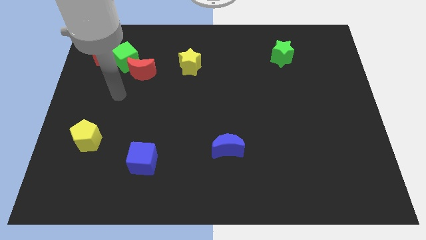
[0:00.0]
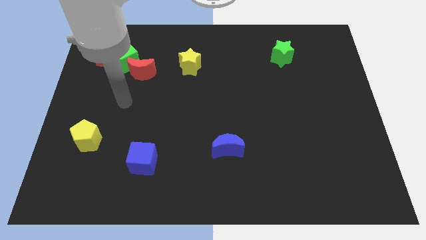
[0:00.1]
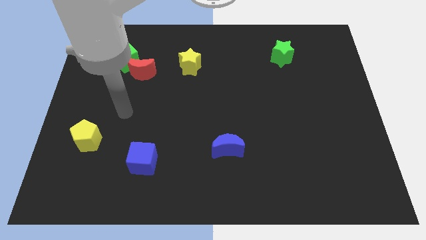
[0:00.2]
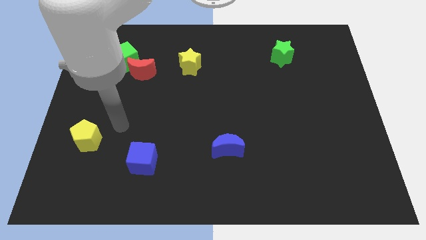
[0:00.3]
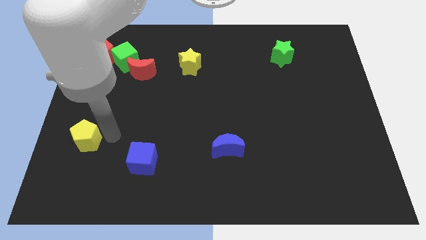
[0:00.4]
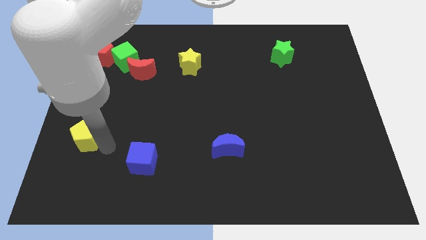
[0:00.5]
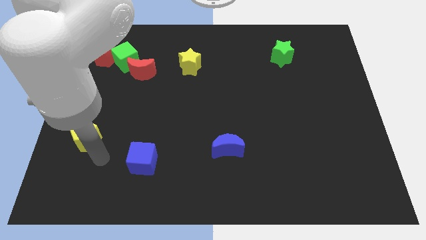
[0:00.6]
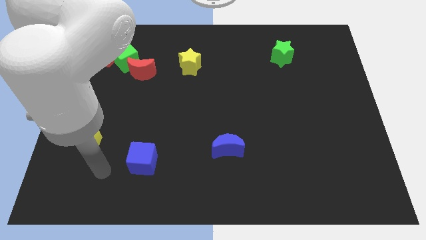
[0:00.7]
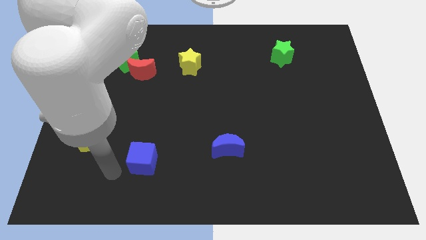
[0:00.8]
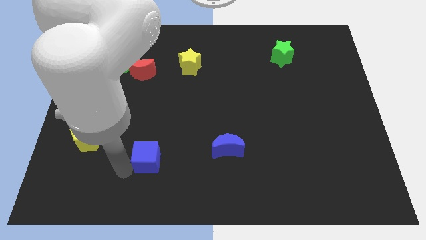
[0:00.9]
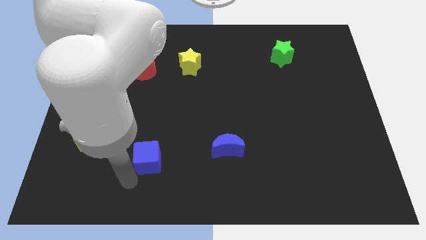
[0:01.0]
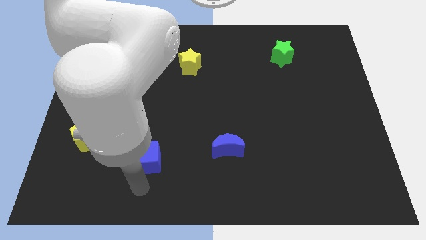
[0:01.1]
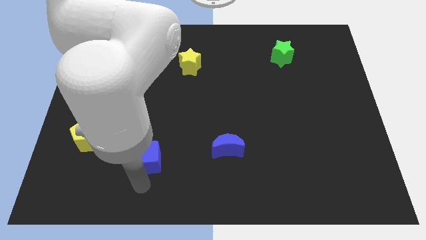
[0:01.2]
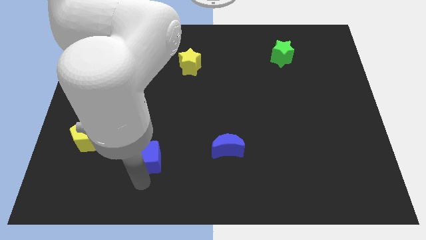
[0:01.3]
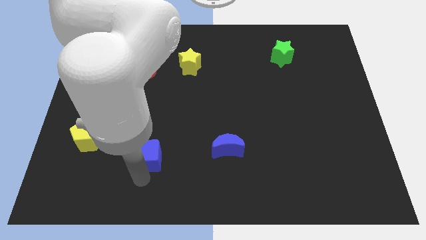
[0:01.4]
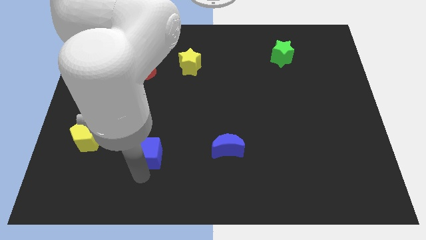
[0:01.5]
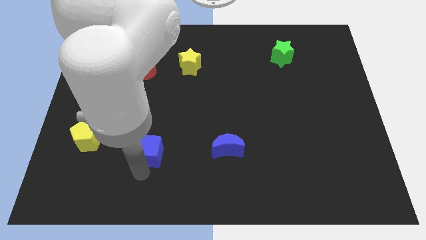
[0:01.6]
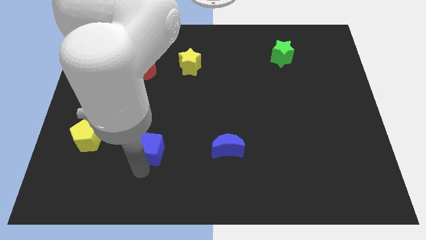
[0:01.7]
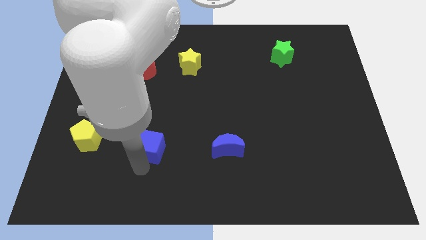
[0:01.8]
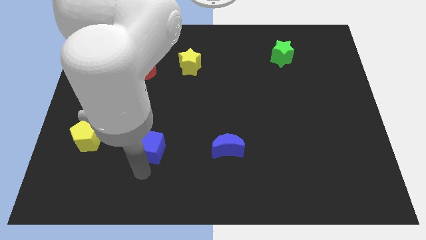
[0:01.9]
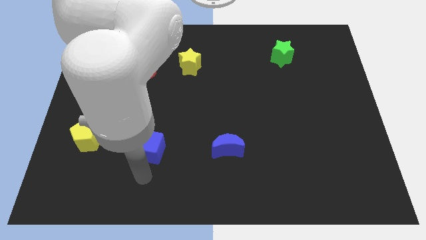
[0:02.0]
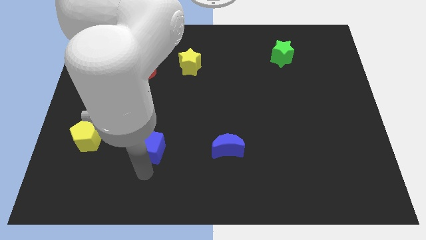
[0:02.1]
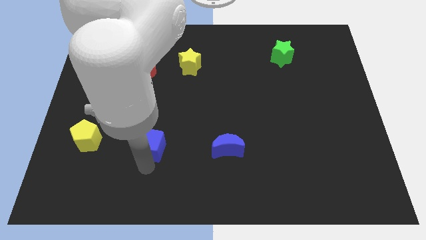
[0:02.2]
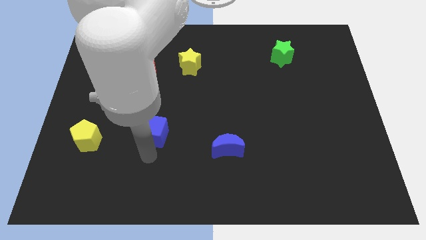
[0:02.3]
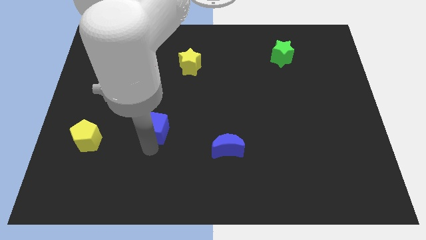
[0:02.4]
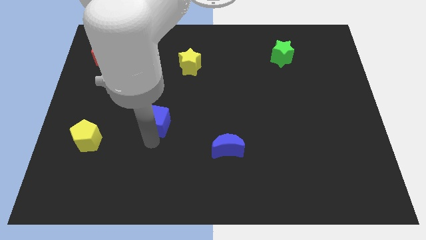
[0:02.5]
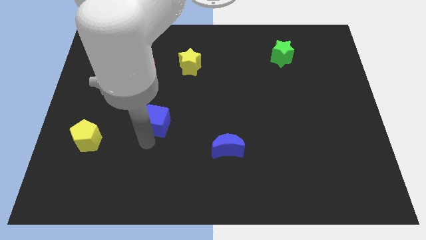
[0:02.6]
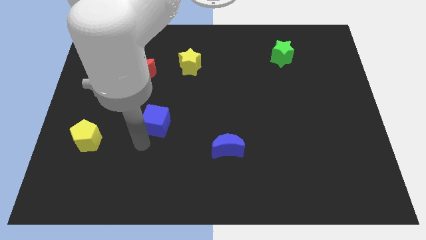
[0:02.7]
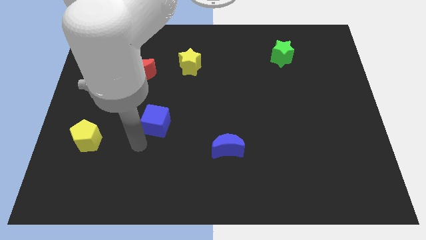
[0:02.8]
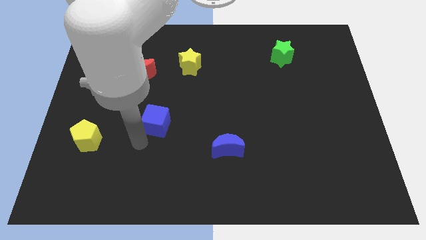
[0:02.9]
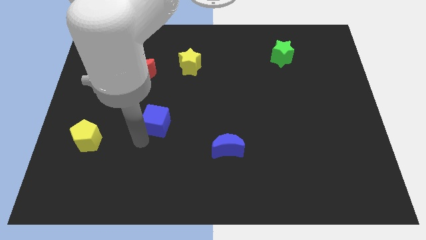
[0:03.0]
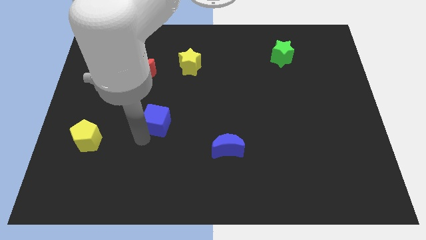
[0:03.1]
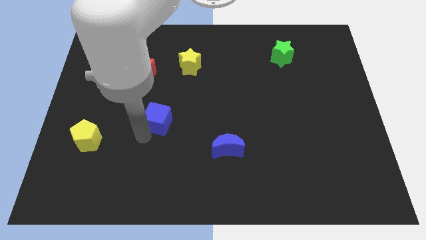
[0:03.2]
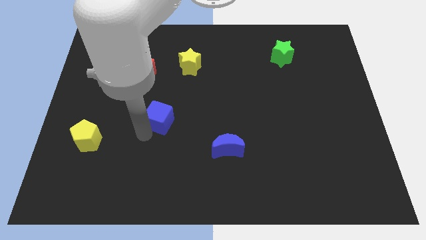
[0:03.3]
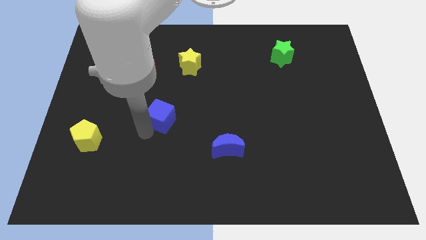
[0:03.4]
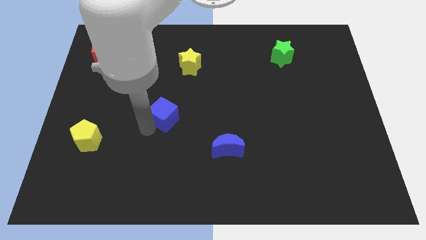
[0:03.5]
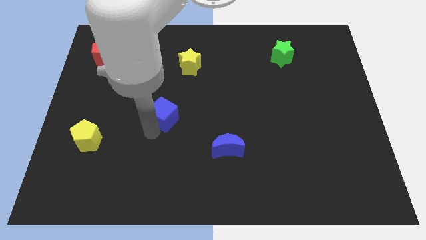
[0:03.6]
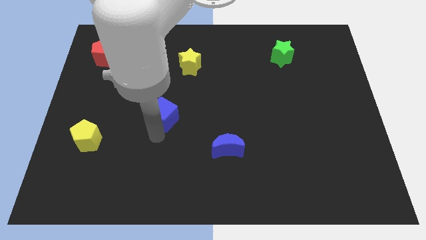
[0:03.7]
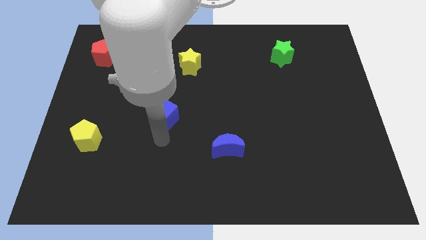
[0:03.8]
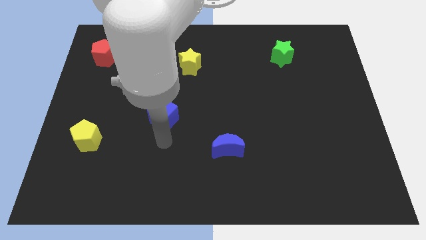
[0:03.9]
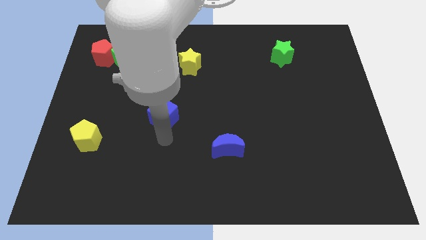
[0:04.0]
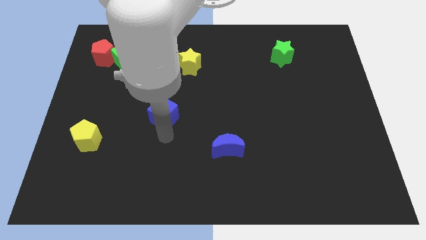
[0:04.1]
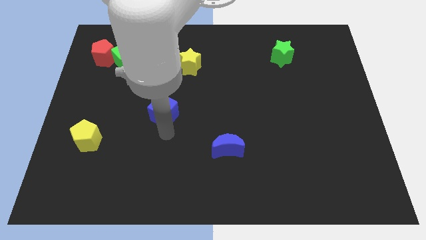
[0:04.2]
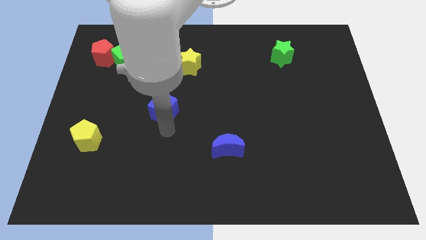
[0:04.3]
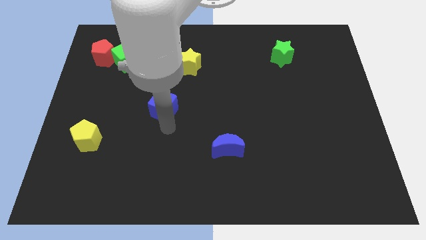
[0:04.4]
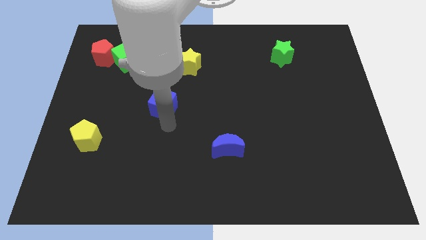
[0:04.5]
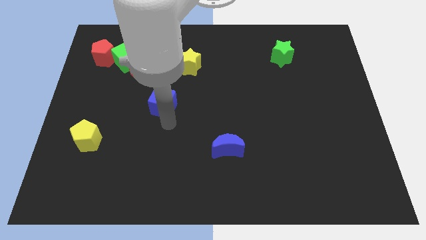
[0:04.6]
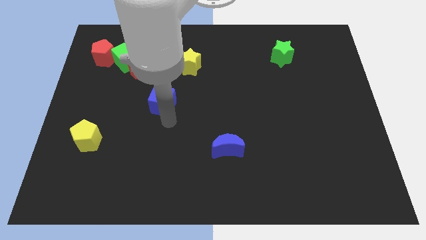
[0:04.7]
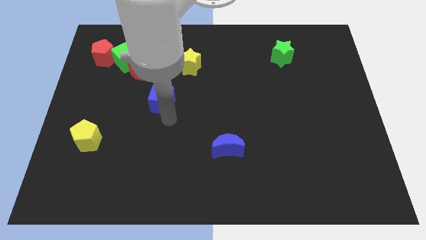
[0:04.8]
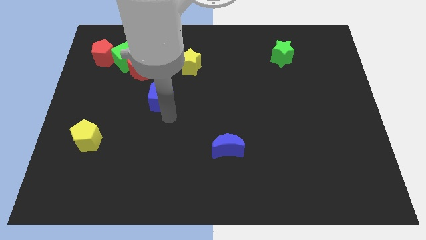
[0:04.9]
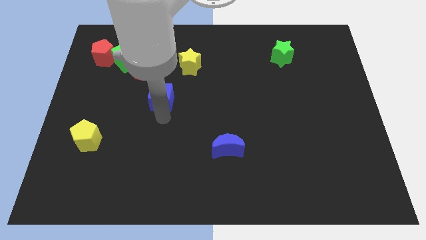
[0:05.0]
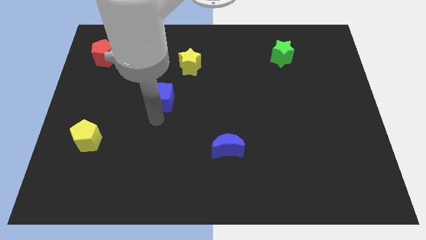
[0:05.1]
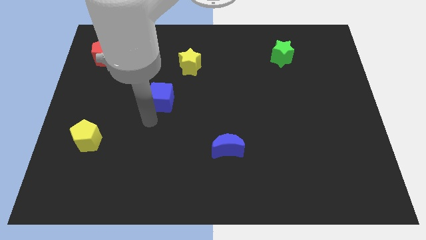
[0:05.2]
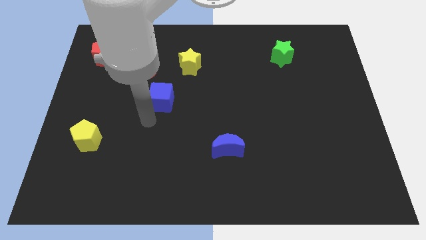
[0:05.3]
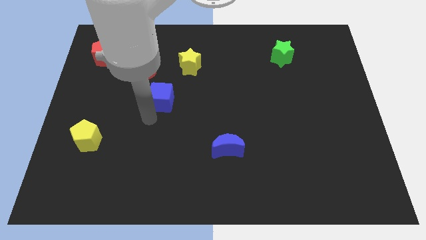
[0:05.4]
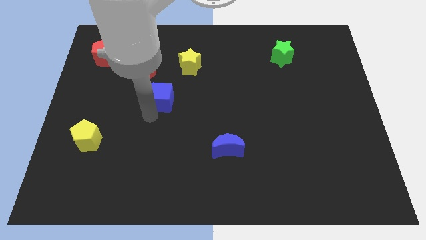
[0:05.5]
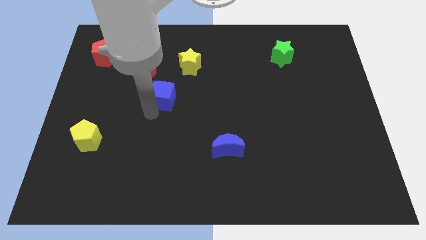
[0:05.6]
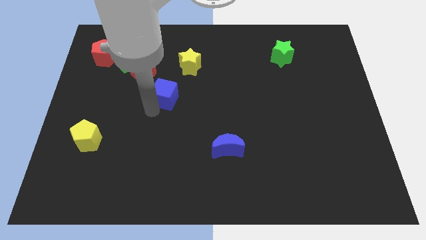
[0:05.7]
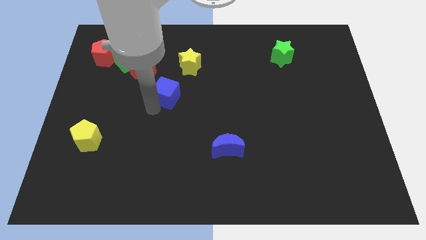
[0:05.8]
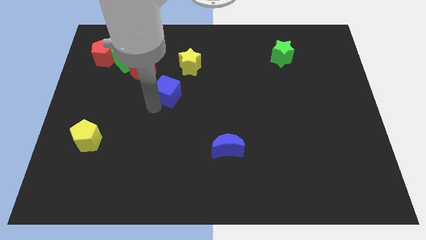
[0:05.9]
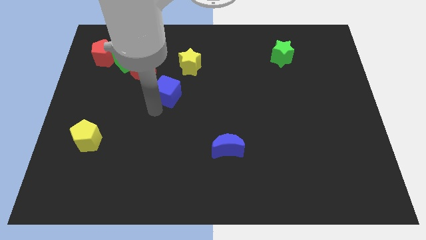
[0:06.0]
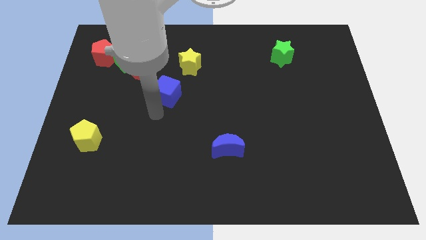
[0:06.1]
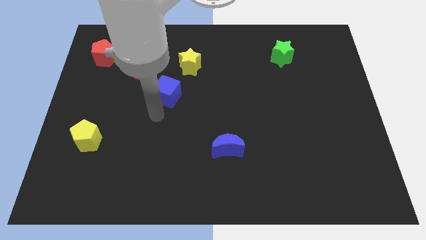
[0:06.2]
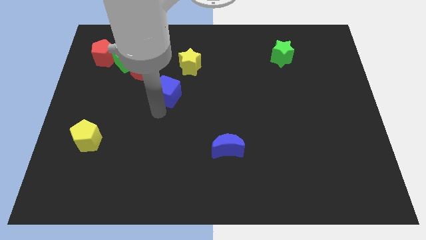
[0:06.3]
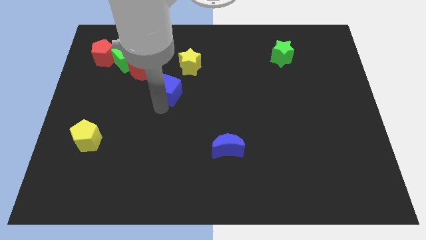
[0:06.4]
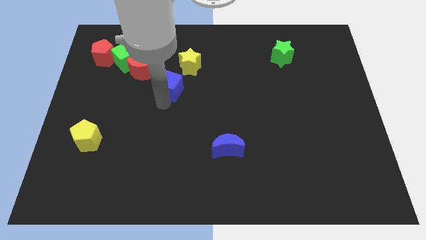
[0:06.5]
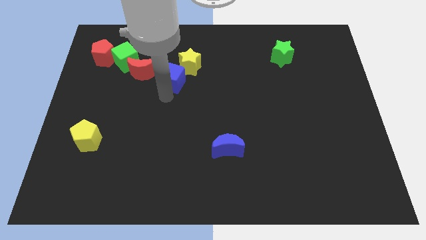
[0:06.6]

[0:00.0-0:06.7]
slide the blue cube to the yellow star

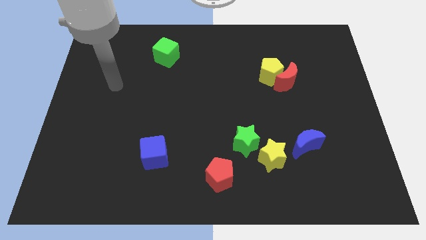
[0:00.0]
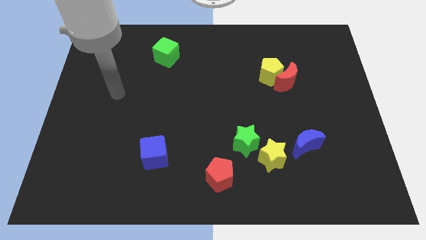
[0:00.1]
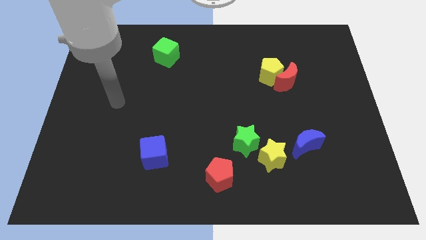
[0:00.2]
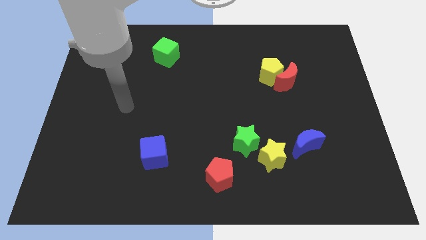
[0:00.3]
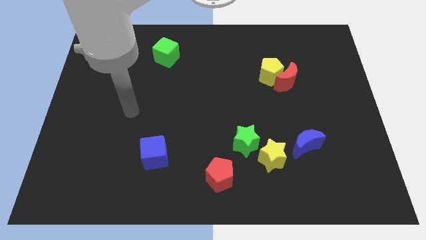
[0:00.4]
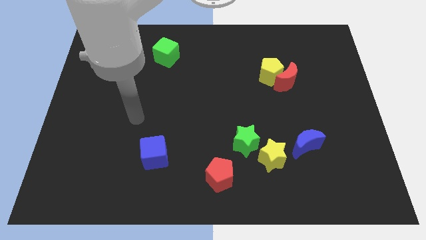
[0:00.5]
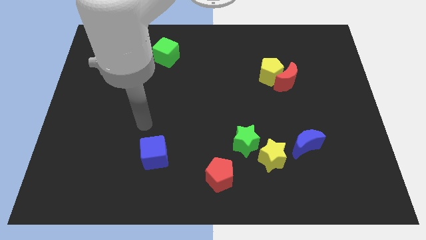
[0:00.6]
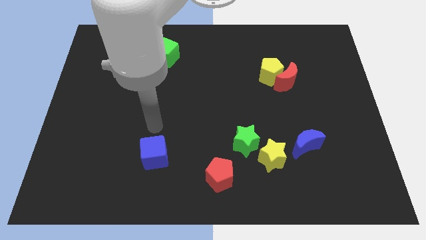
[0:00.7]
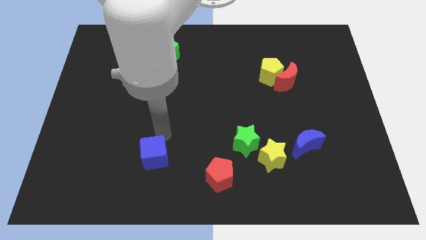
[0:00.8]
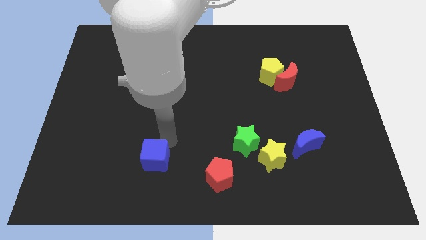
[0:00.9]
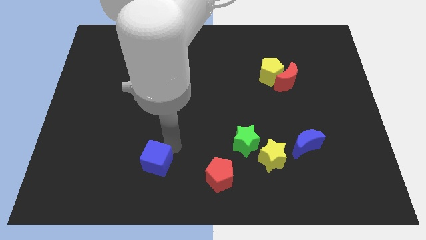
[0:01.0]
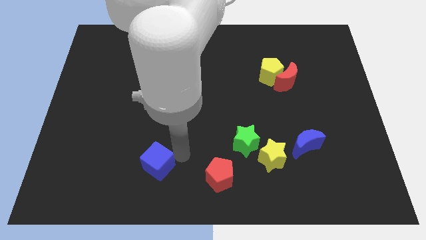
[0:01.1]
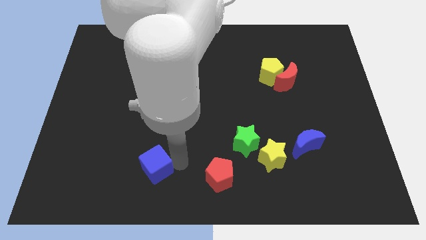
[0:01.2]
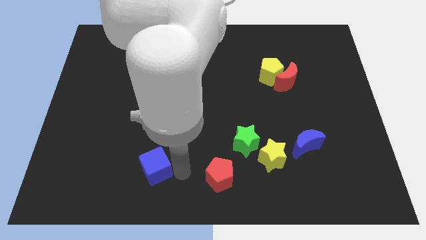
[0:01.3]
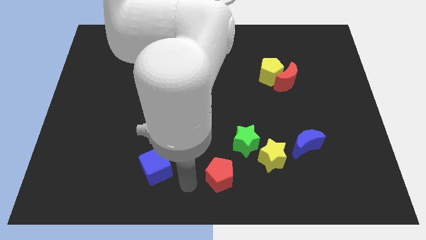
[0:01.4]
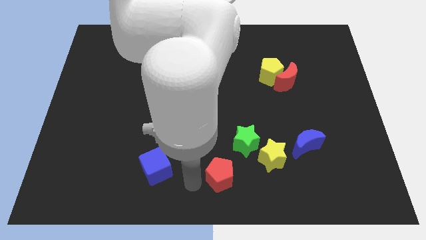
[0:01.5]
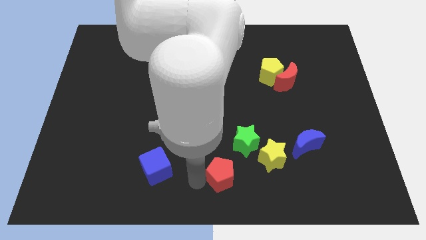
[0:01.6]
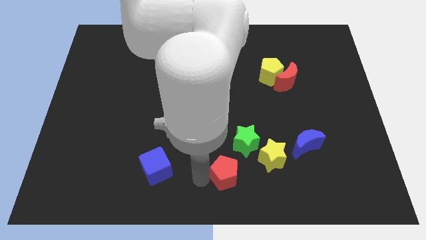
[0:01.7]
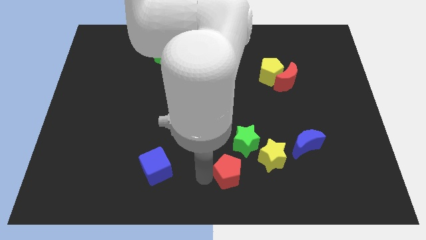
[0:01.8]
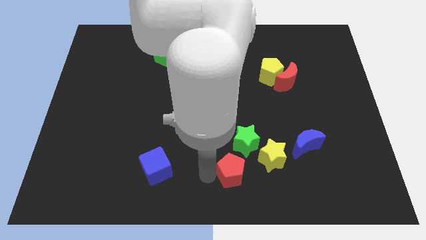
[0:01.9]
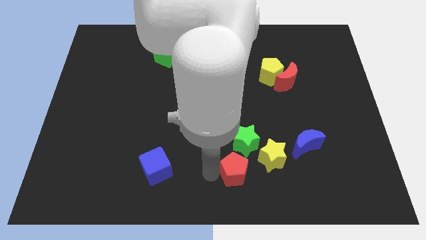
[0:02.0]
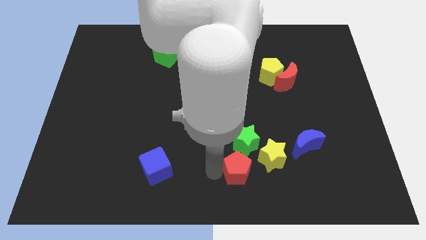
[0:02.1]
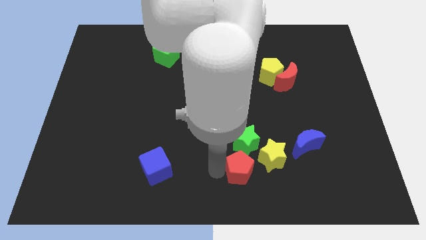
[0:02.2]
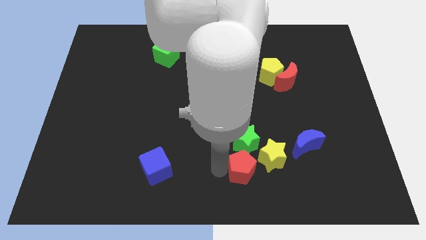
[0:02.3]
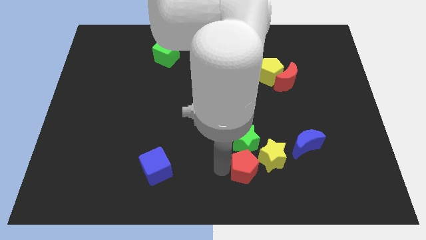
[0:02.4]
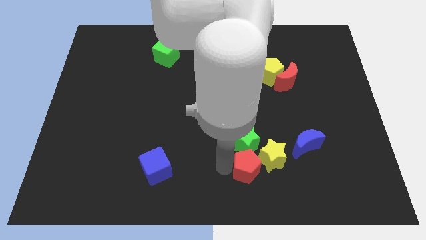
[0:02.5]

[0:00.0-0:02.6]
slide the red pentagon close to the yellow star
